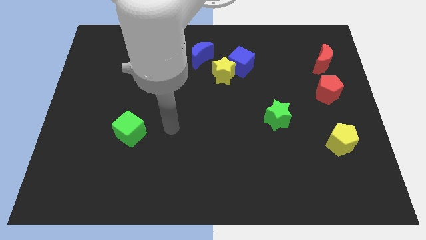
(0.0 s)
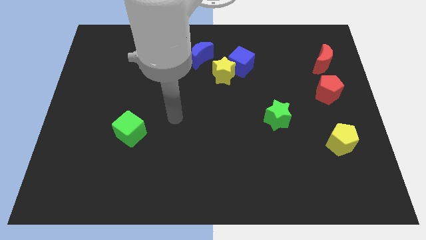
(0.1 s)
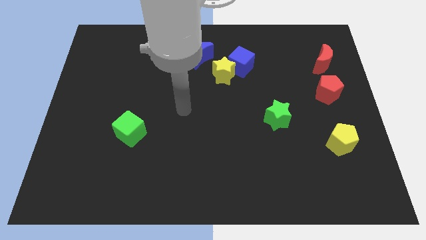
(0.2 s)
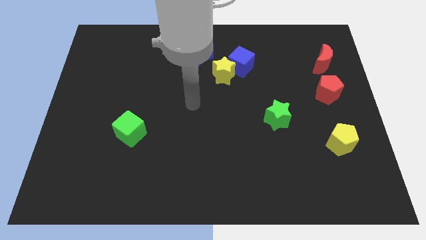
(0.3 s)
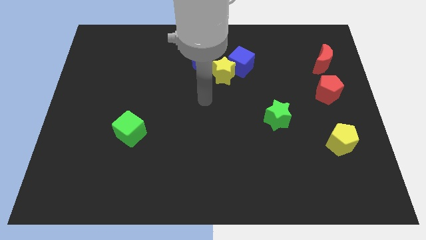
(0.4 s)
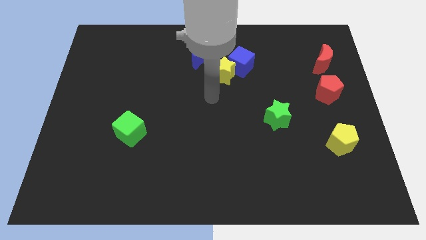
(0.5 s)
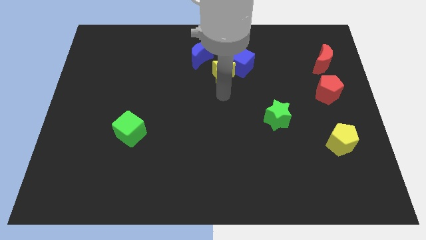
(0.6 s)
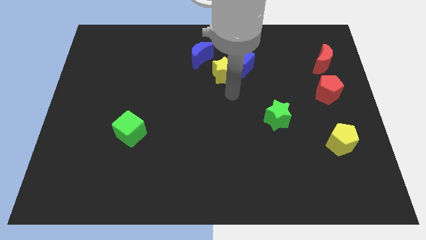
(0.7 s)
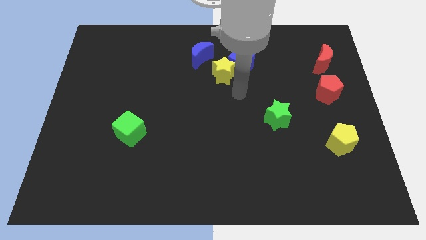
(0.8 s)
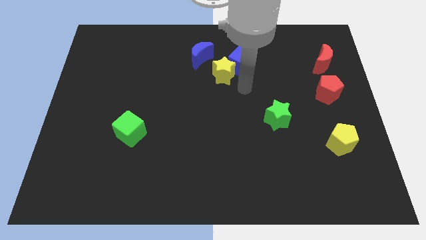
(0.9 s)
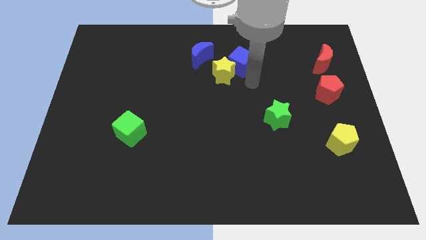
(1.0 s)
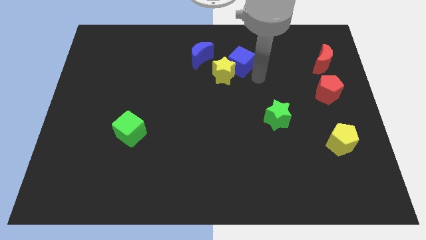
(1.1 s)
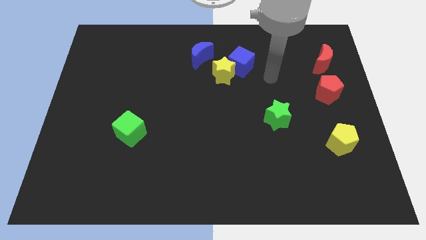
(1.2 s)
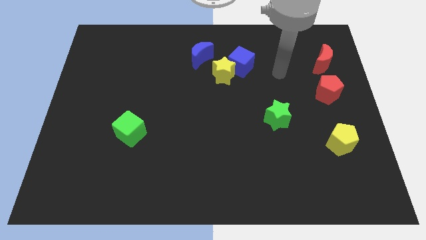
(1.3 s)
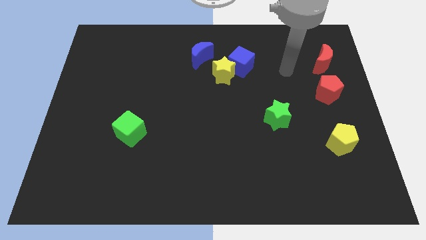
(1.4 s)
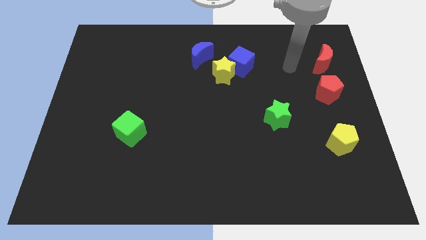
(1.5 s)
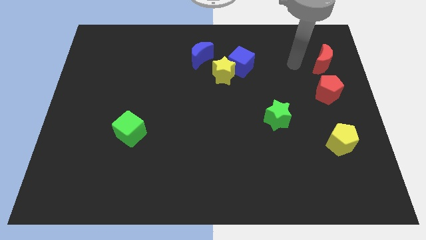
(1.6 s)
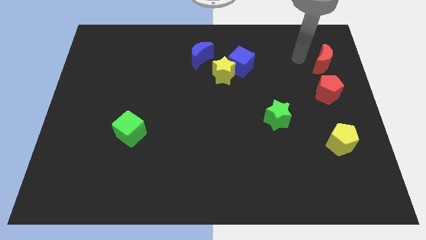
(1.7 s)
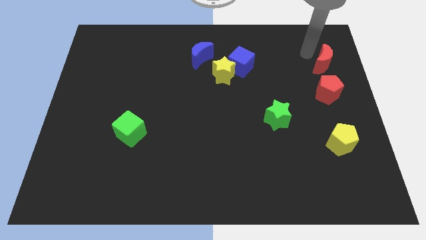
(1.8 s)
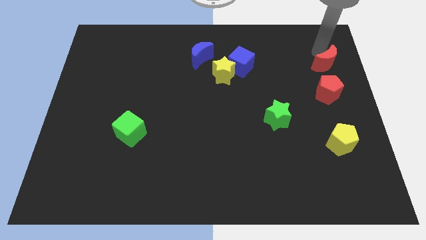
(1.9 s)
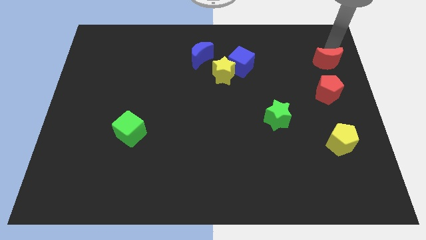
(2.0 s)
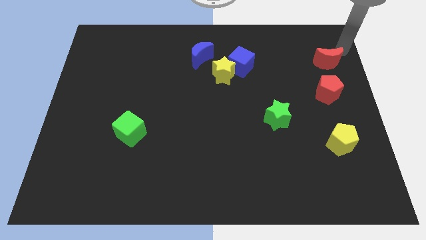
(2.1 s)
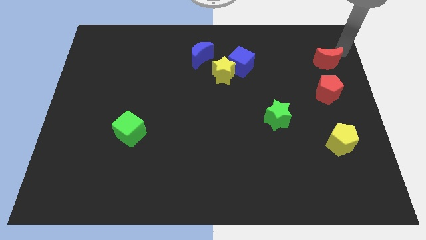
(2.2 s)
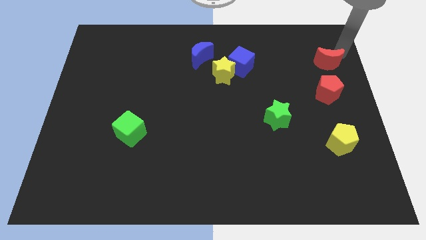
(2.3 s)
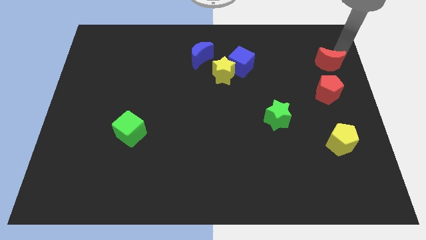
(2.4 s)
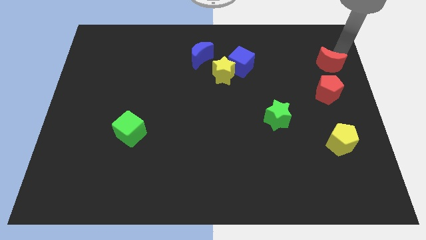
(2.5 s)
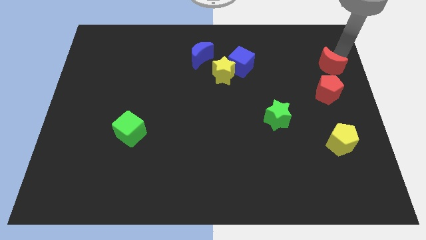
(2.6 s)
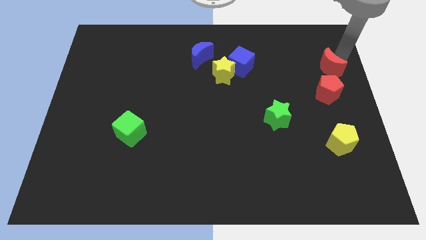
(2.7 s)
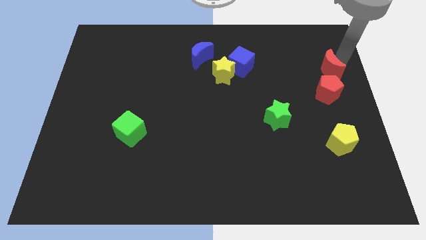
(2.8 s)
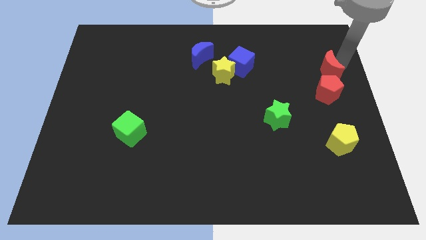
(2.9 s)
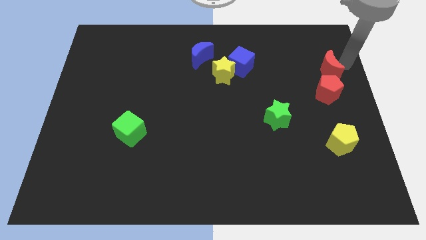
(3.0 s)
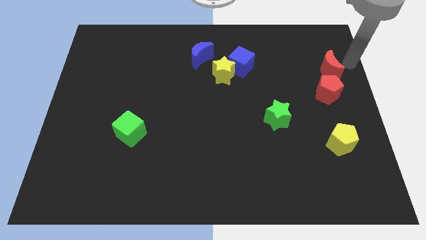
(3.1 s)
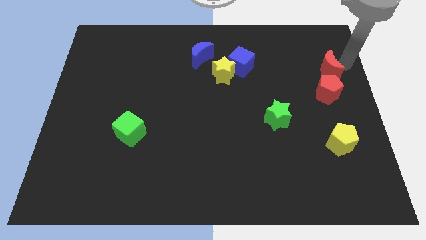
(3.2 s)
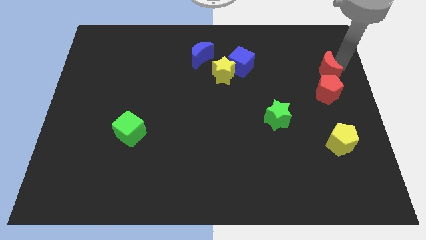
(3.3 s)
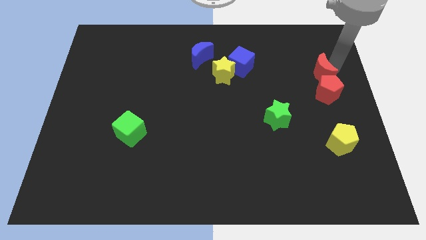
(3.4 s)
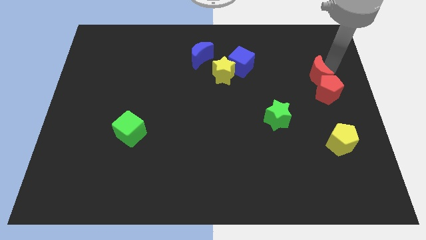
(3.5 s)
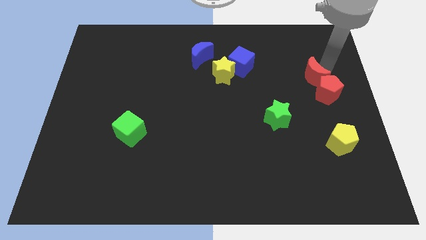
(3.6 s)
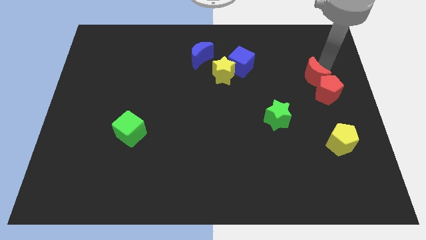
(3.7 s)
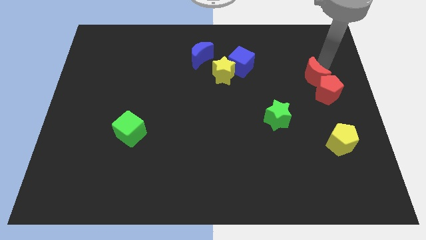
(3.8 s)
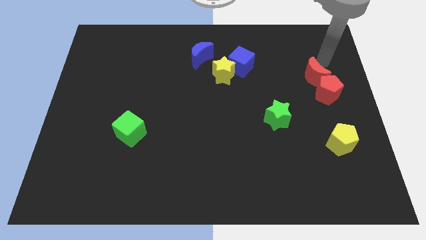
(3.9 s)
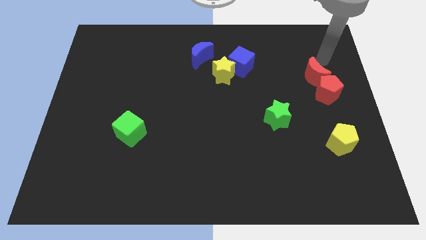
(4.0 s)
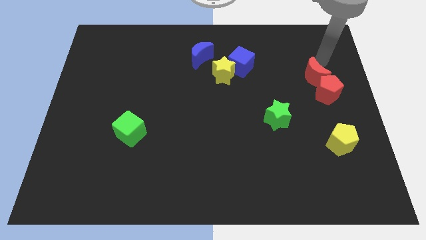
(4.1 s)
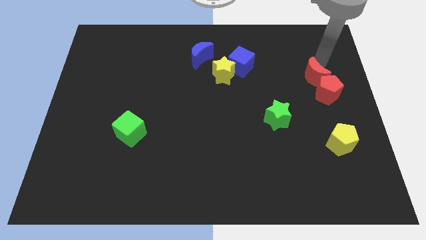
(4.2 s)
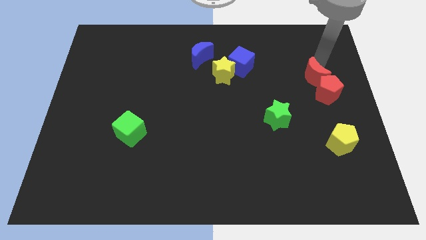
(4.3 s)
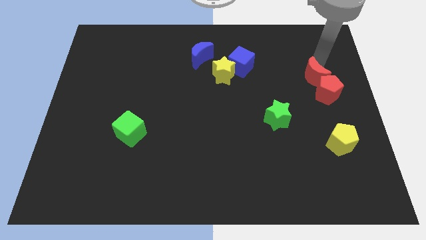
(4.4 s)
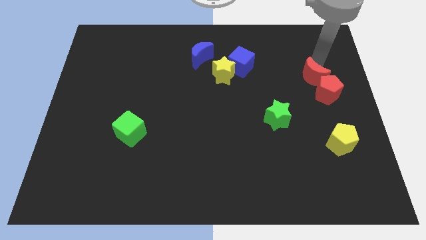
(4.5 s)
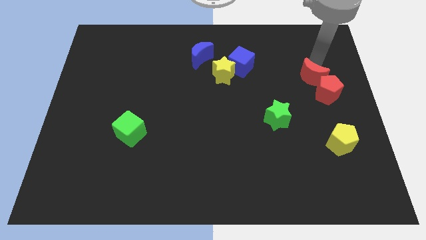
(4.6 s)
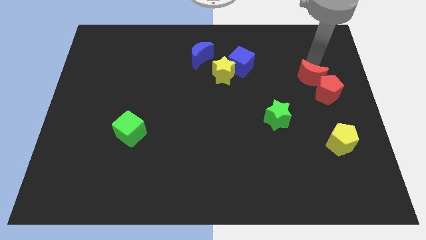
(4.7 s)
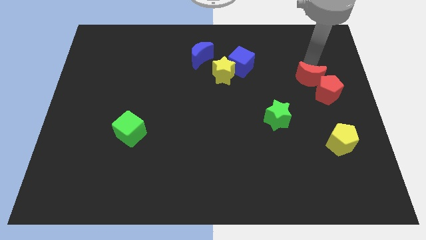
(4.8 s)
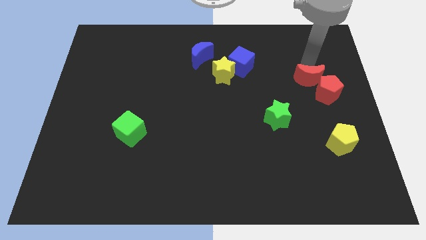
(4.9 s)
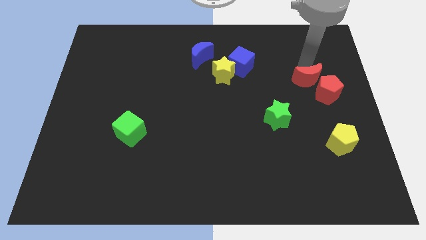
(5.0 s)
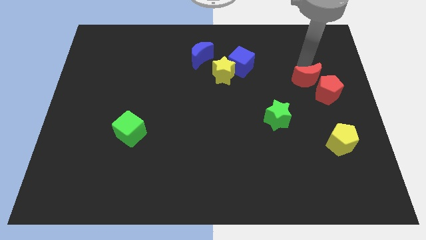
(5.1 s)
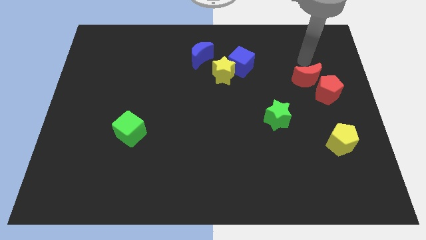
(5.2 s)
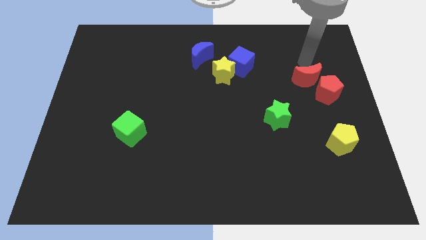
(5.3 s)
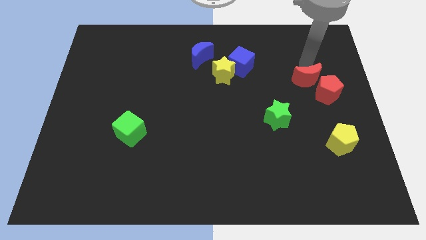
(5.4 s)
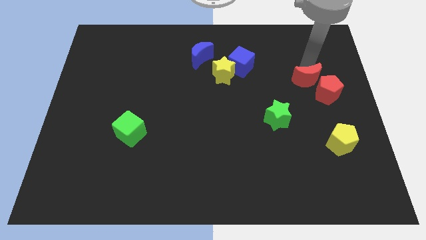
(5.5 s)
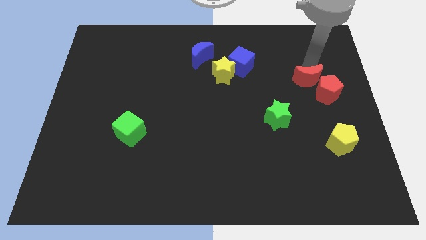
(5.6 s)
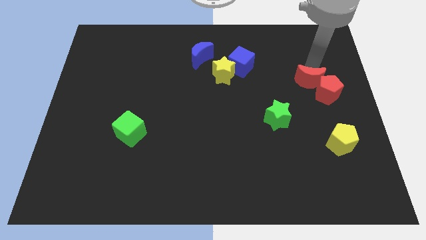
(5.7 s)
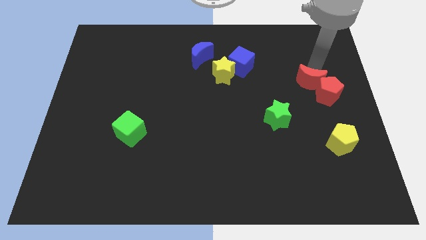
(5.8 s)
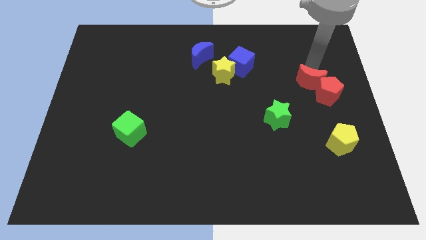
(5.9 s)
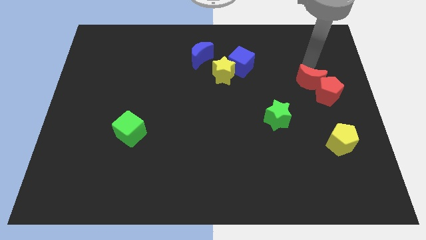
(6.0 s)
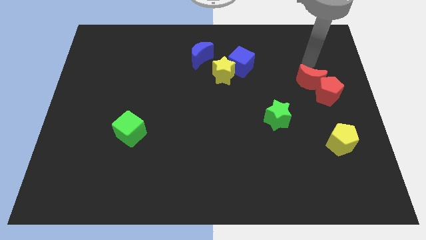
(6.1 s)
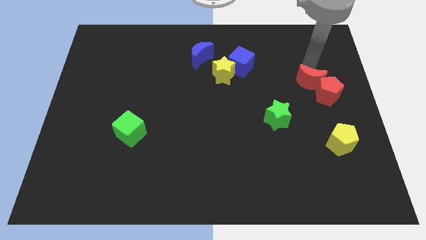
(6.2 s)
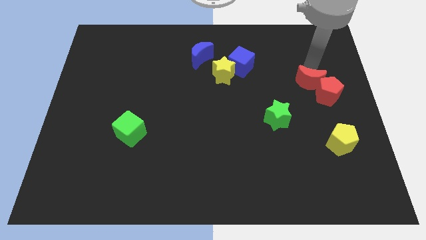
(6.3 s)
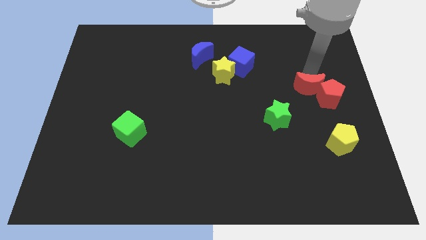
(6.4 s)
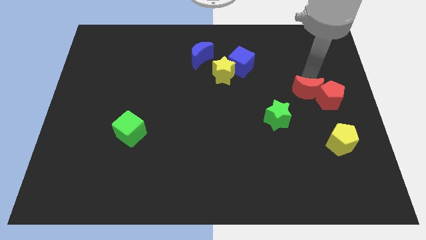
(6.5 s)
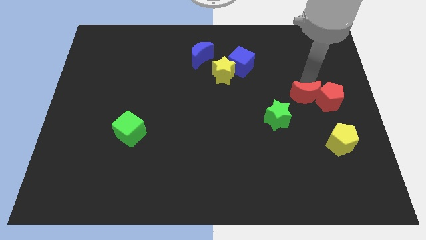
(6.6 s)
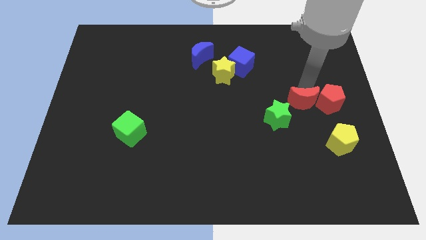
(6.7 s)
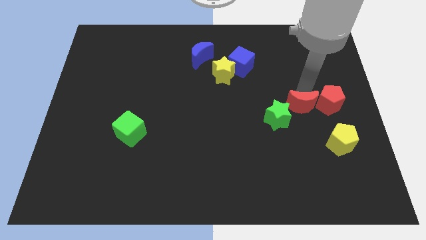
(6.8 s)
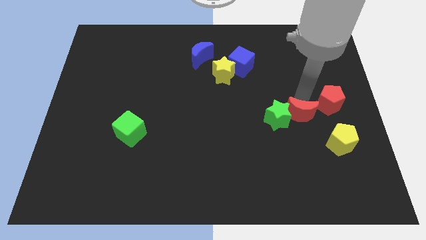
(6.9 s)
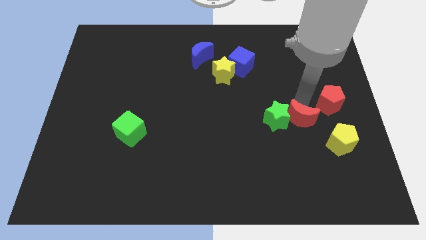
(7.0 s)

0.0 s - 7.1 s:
push the red moon diagonally down and to the right of the green star

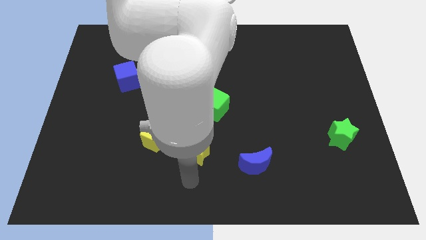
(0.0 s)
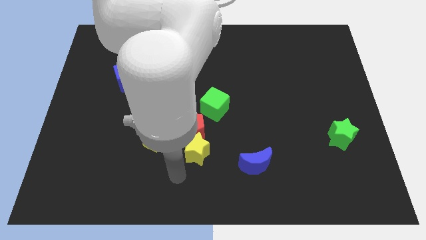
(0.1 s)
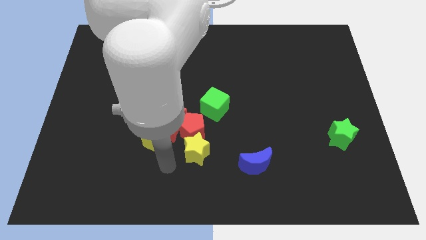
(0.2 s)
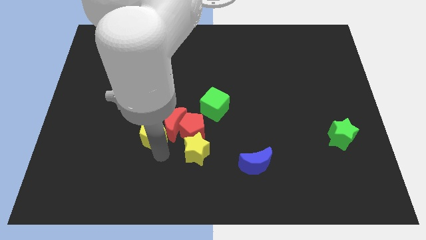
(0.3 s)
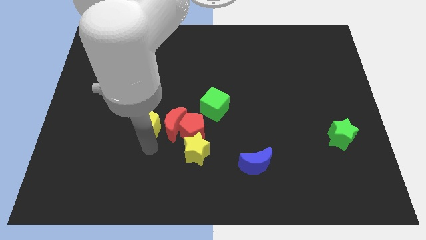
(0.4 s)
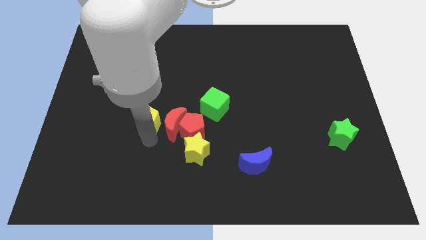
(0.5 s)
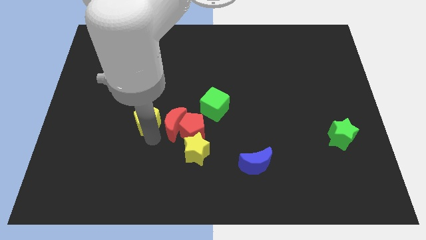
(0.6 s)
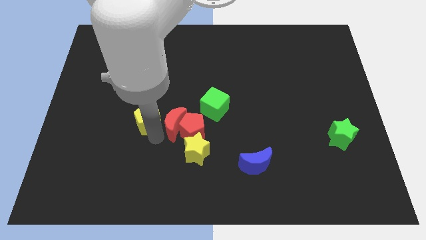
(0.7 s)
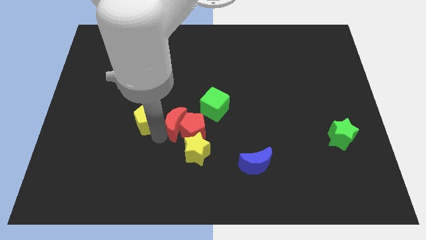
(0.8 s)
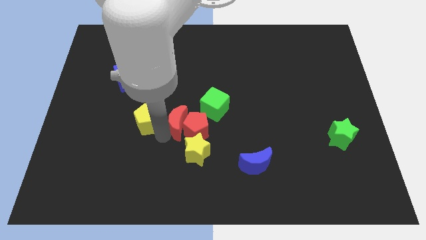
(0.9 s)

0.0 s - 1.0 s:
put the red moon to the top of the yellow star
